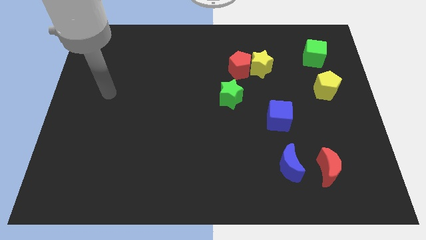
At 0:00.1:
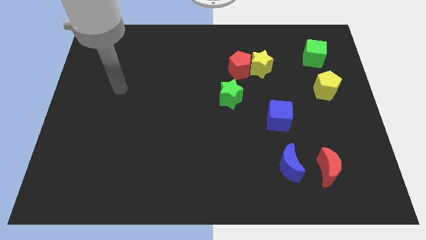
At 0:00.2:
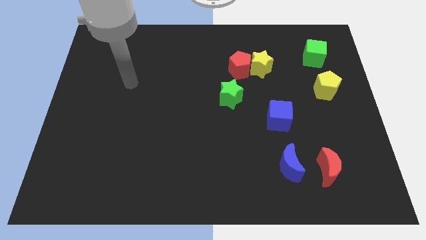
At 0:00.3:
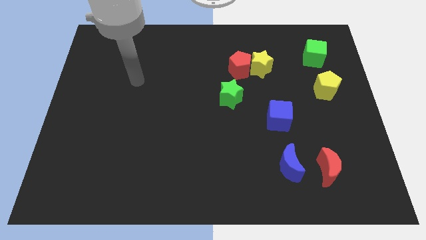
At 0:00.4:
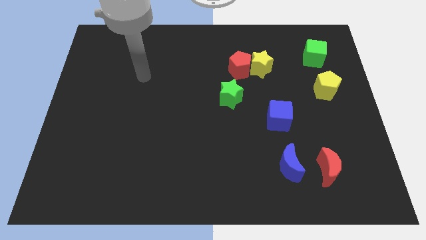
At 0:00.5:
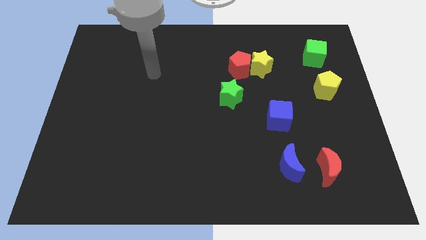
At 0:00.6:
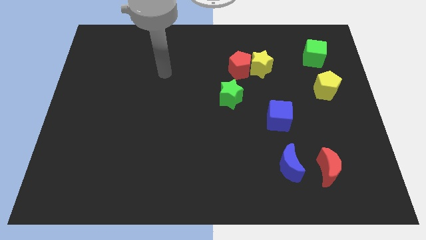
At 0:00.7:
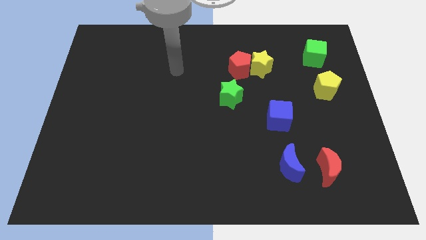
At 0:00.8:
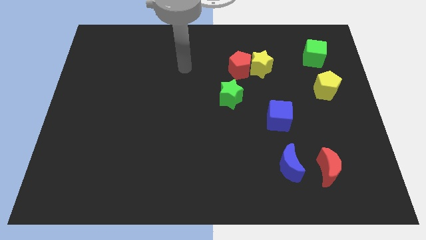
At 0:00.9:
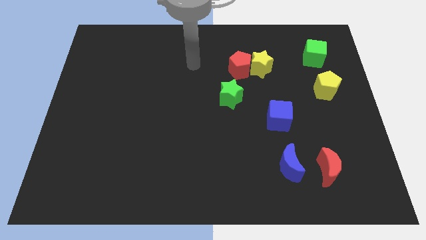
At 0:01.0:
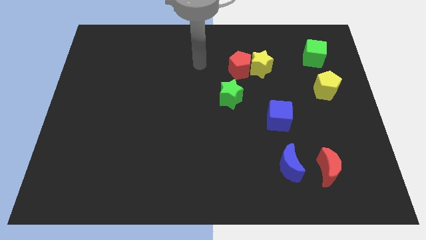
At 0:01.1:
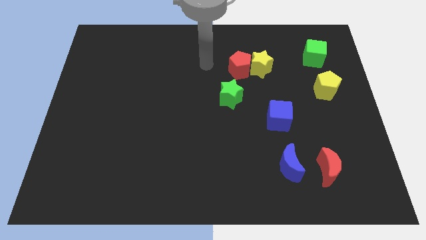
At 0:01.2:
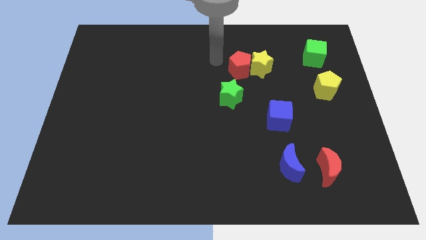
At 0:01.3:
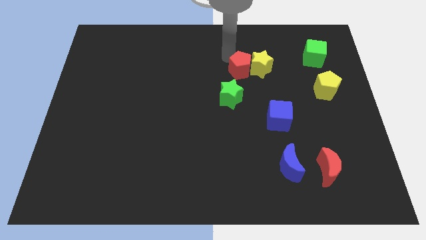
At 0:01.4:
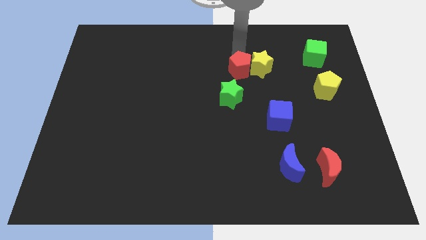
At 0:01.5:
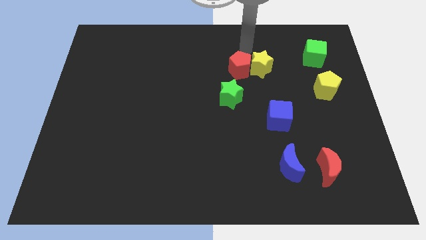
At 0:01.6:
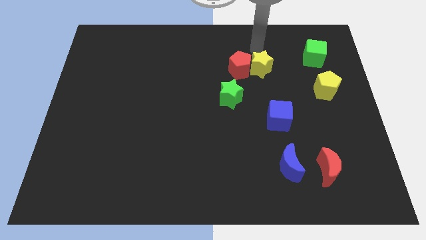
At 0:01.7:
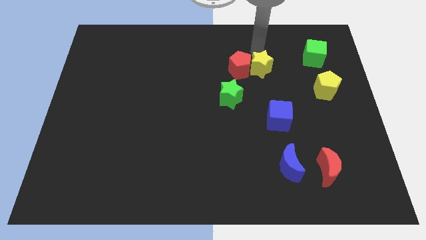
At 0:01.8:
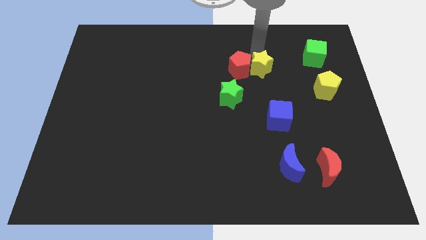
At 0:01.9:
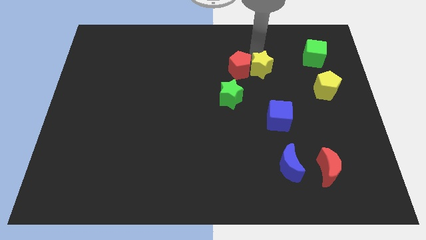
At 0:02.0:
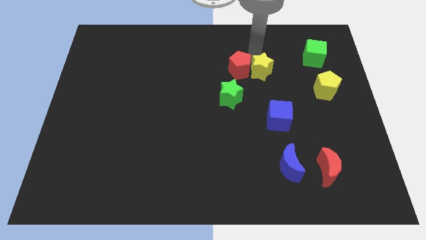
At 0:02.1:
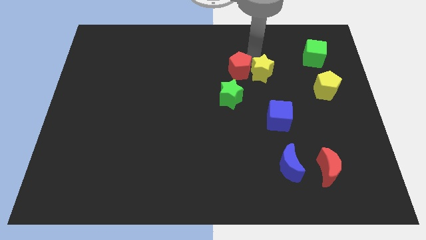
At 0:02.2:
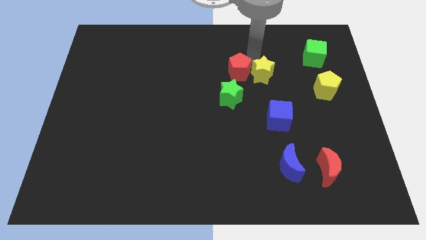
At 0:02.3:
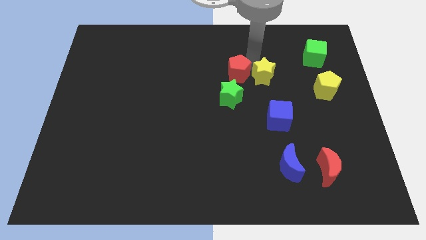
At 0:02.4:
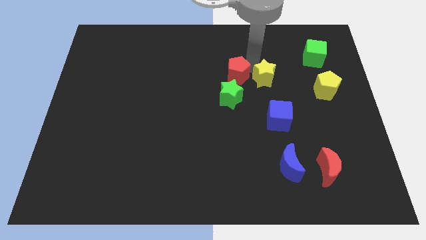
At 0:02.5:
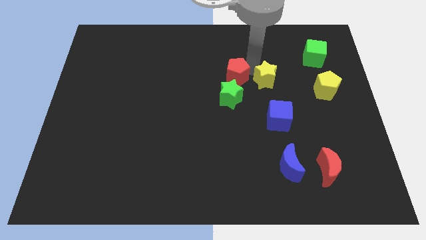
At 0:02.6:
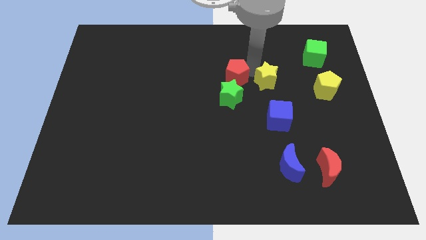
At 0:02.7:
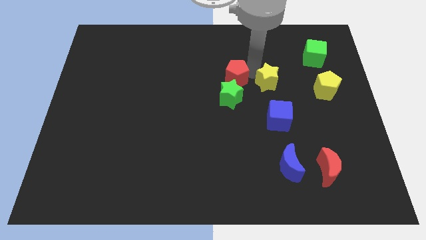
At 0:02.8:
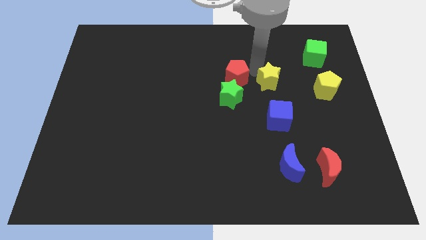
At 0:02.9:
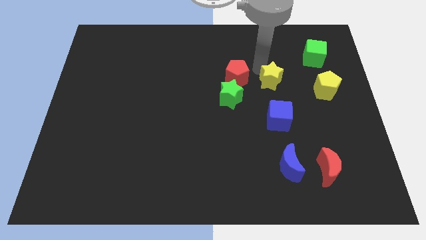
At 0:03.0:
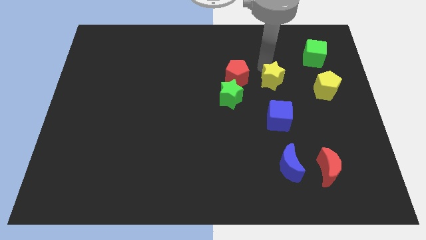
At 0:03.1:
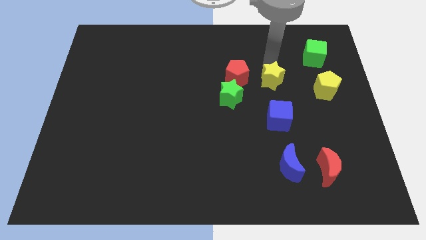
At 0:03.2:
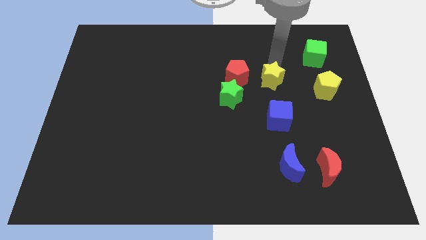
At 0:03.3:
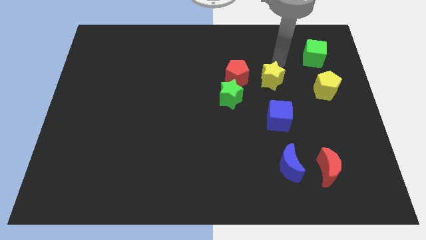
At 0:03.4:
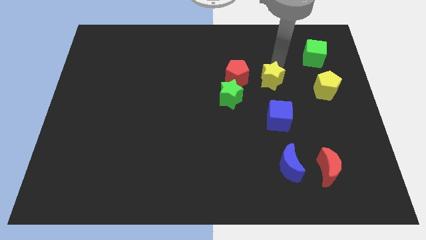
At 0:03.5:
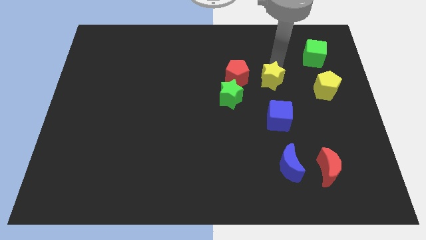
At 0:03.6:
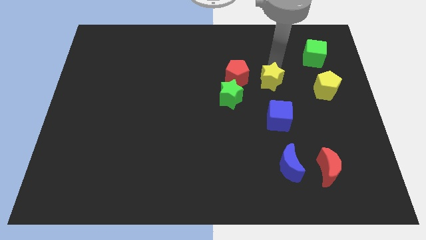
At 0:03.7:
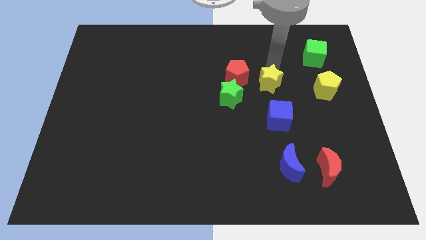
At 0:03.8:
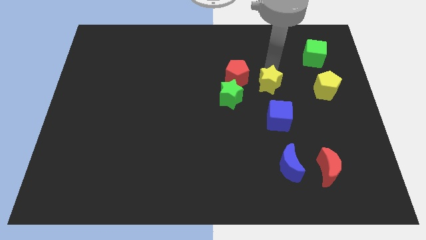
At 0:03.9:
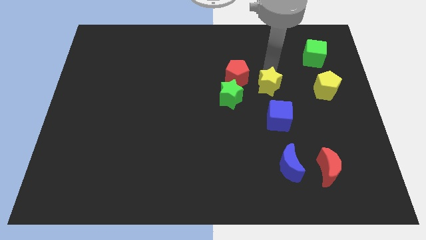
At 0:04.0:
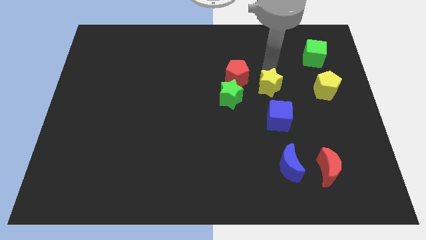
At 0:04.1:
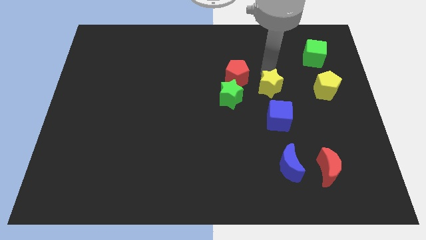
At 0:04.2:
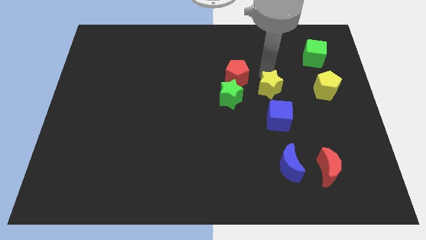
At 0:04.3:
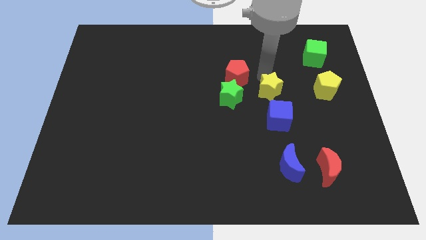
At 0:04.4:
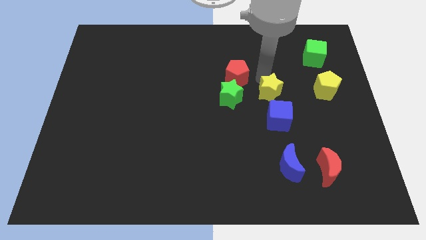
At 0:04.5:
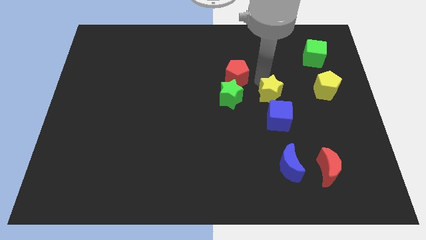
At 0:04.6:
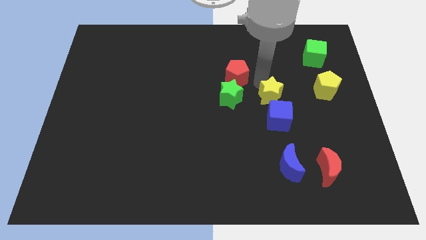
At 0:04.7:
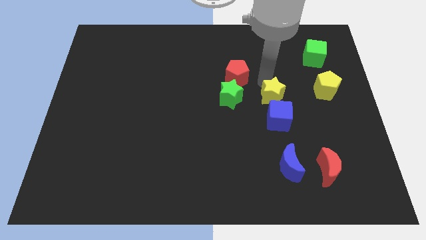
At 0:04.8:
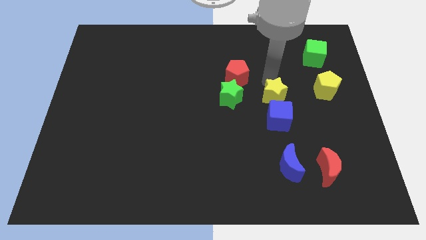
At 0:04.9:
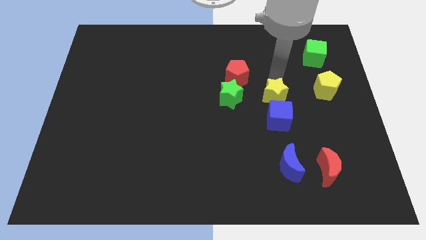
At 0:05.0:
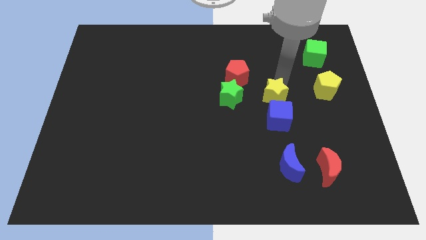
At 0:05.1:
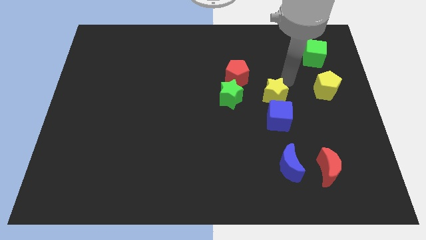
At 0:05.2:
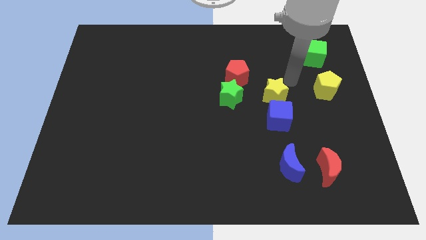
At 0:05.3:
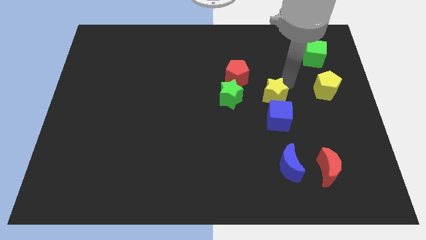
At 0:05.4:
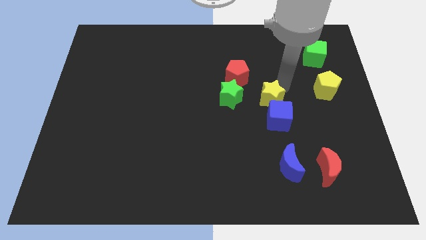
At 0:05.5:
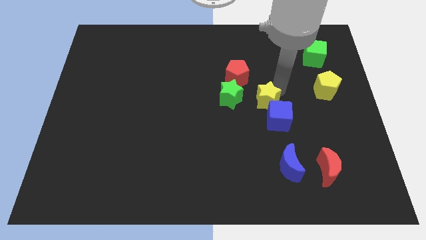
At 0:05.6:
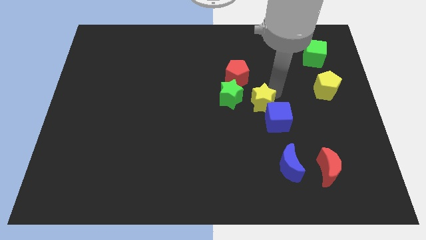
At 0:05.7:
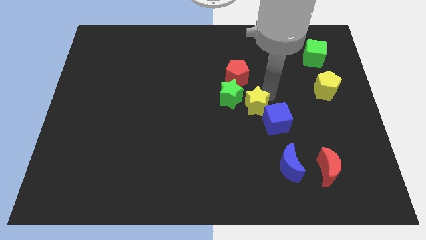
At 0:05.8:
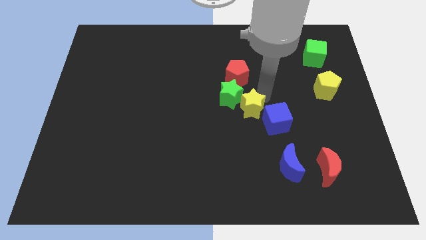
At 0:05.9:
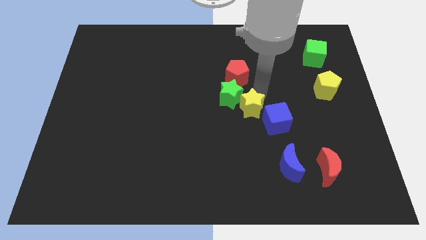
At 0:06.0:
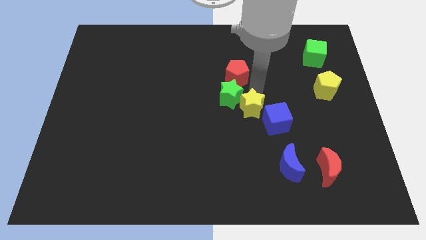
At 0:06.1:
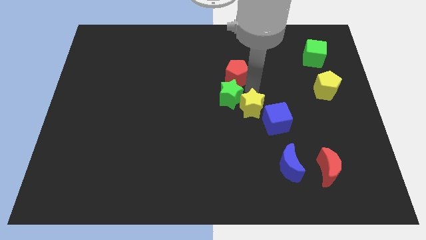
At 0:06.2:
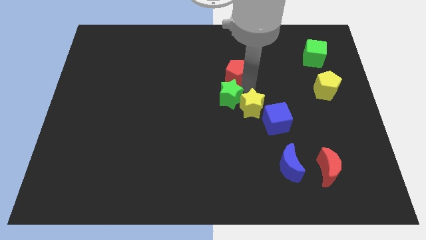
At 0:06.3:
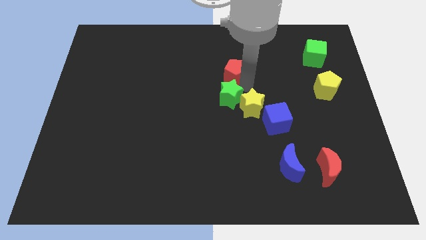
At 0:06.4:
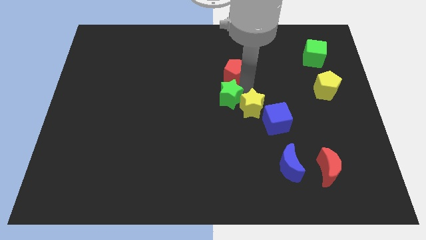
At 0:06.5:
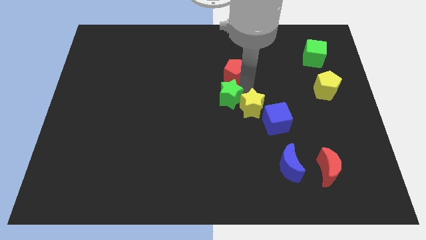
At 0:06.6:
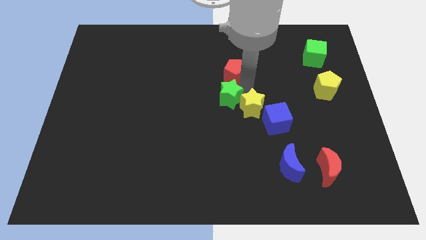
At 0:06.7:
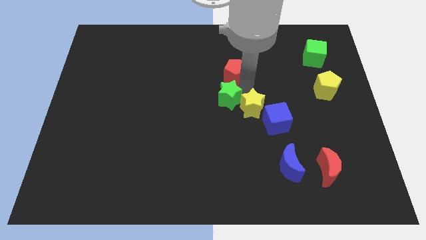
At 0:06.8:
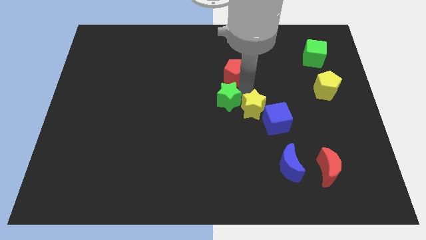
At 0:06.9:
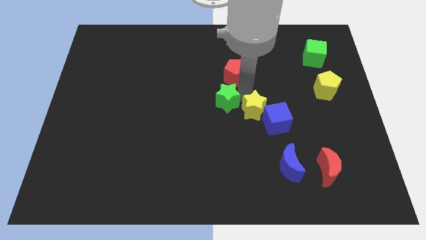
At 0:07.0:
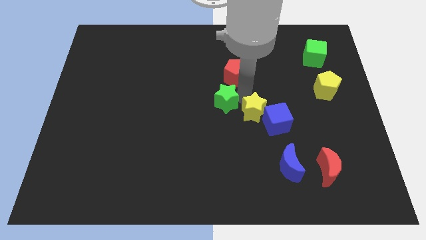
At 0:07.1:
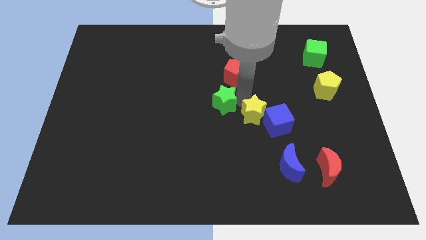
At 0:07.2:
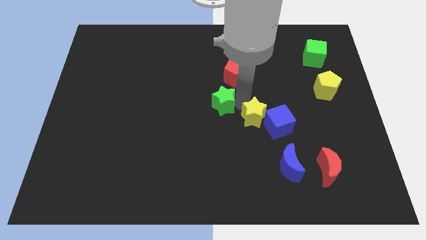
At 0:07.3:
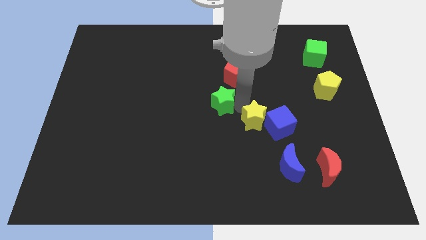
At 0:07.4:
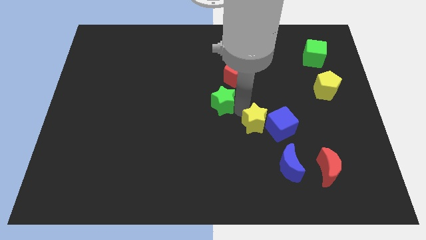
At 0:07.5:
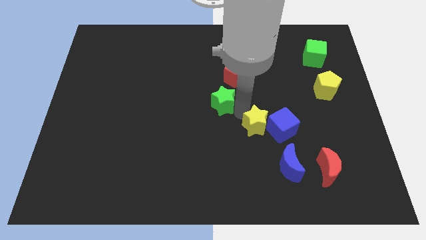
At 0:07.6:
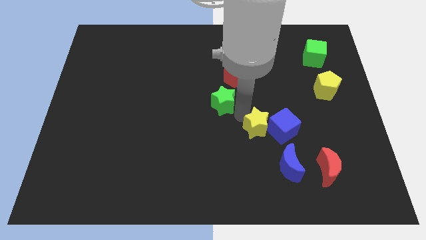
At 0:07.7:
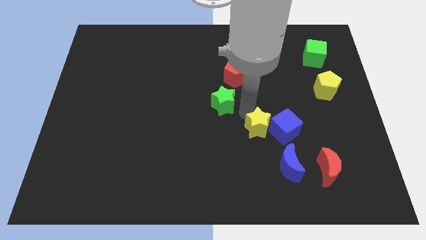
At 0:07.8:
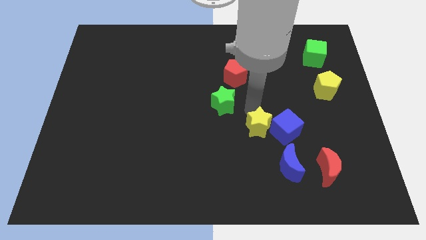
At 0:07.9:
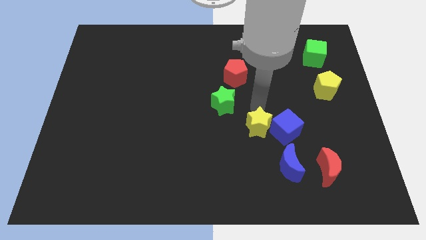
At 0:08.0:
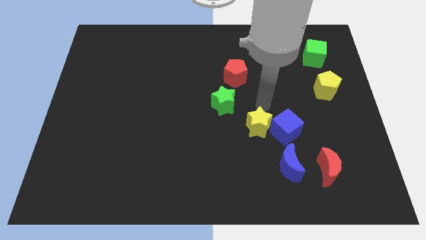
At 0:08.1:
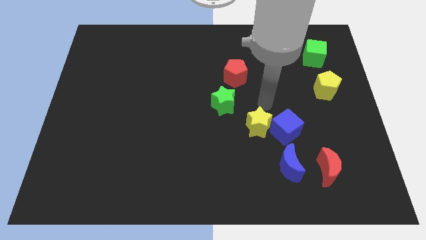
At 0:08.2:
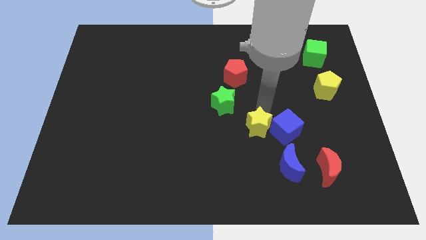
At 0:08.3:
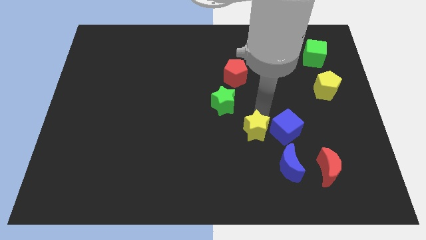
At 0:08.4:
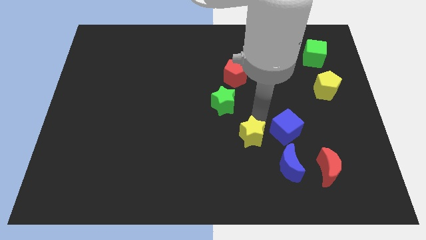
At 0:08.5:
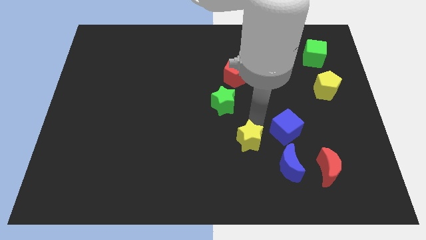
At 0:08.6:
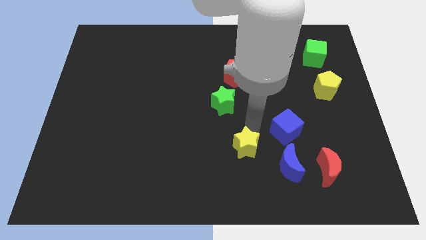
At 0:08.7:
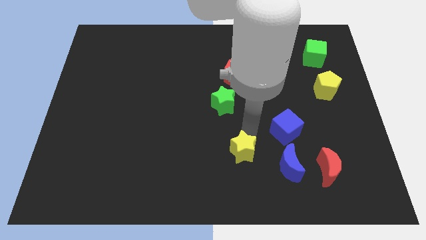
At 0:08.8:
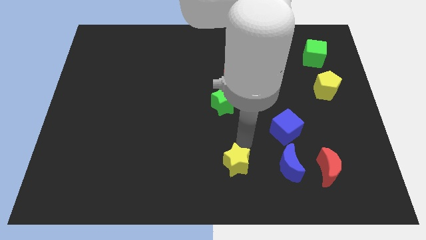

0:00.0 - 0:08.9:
move the yellow star to the bottom
